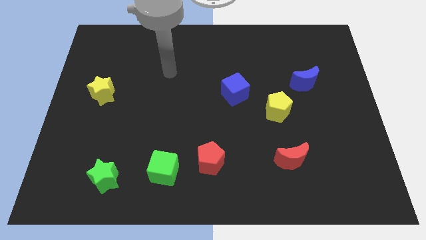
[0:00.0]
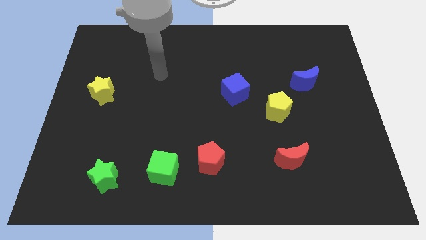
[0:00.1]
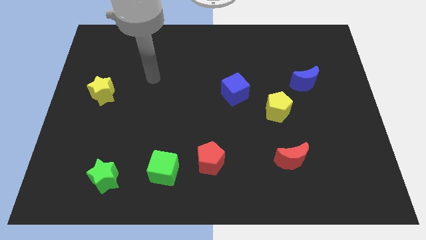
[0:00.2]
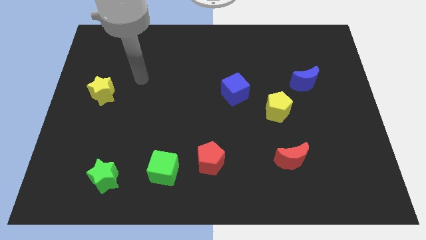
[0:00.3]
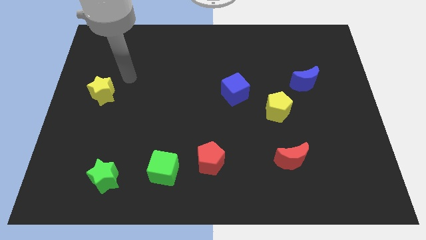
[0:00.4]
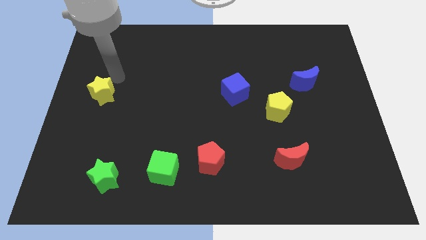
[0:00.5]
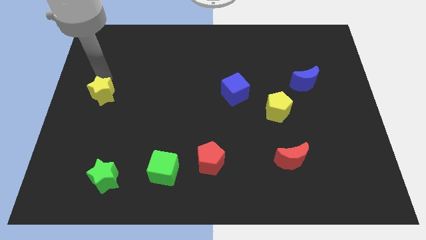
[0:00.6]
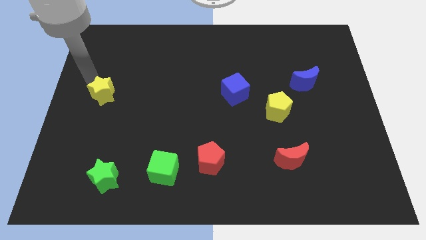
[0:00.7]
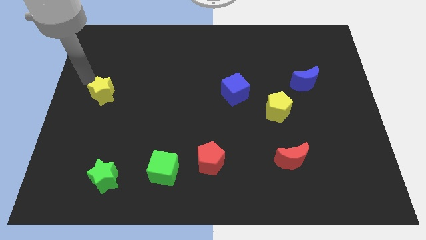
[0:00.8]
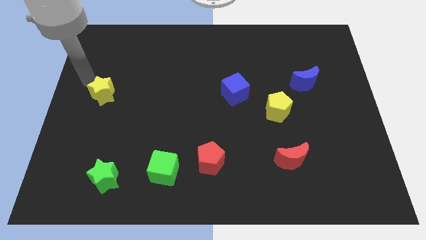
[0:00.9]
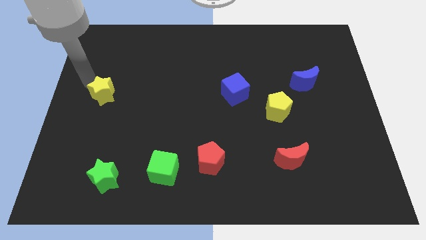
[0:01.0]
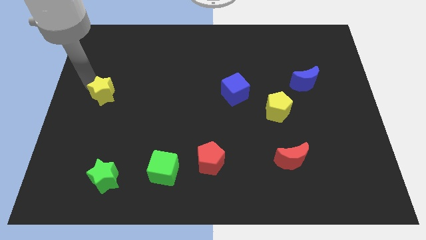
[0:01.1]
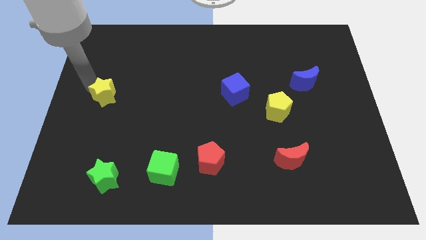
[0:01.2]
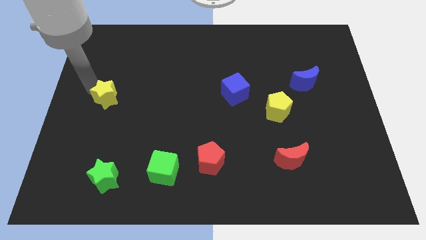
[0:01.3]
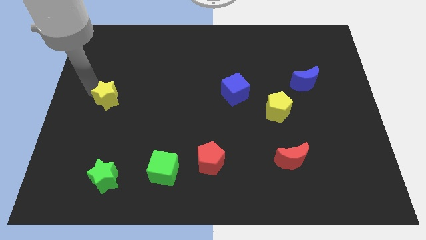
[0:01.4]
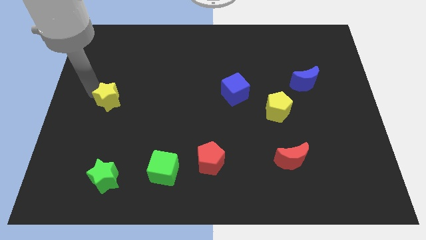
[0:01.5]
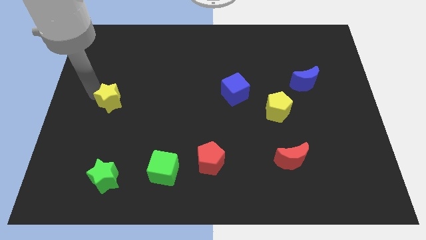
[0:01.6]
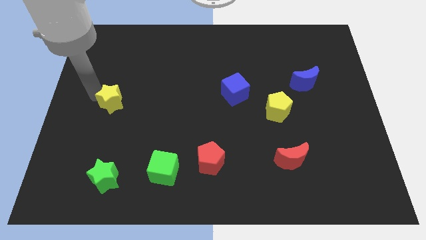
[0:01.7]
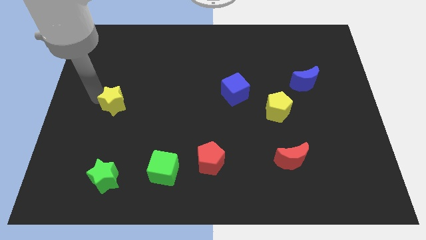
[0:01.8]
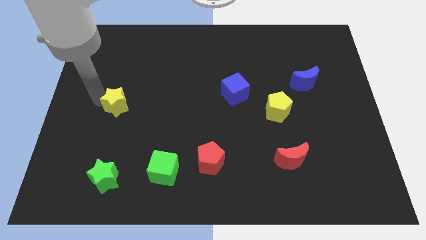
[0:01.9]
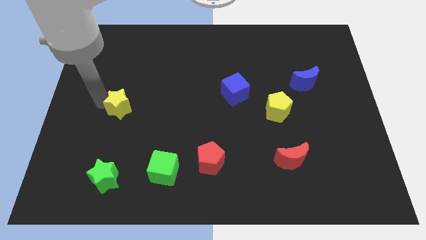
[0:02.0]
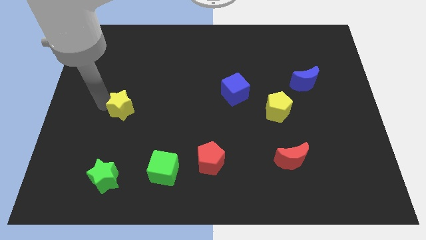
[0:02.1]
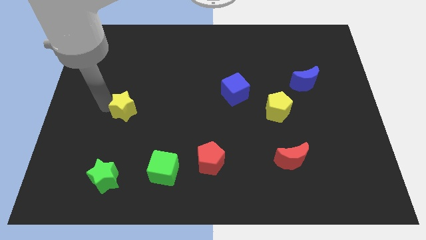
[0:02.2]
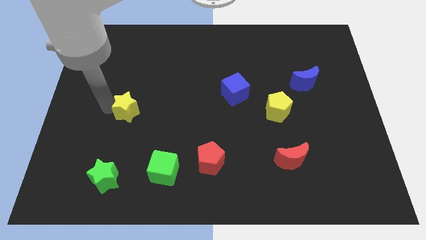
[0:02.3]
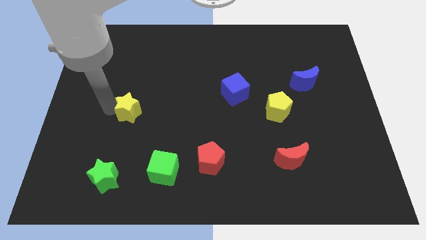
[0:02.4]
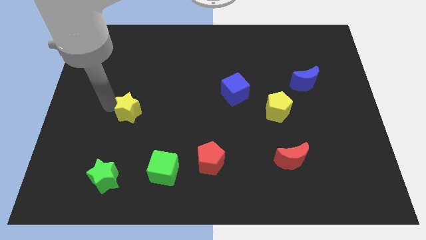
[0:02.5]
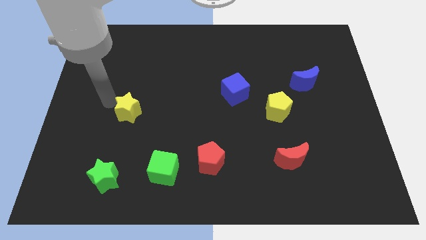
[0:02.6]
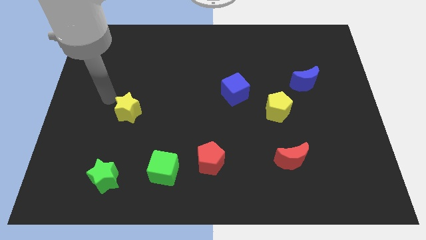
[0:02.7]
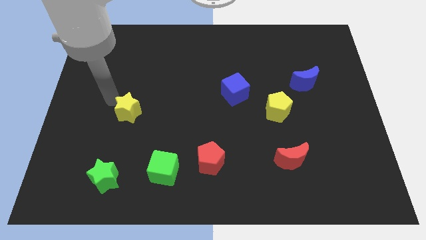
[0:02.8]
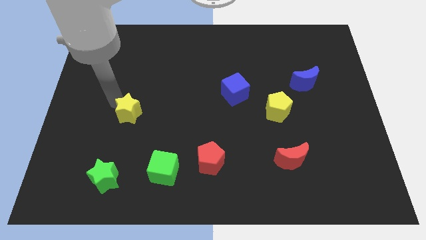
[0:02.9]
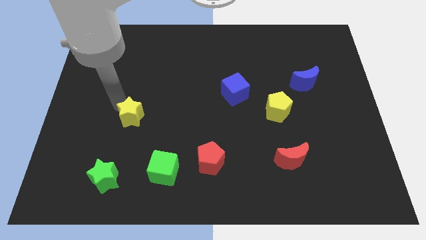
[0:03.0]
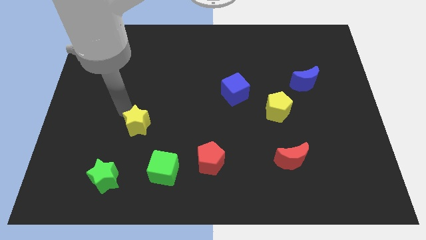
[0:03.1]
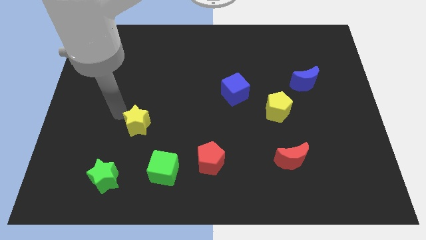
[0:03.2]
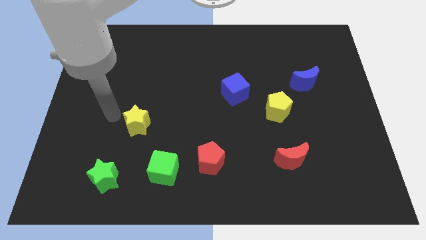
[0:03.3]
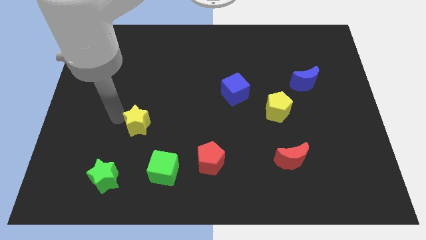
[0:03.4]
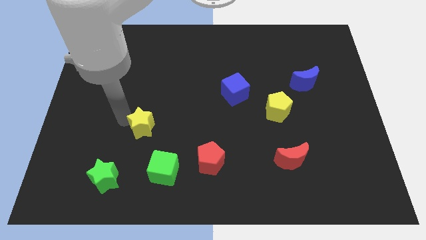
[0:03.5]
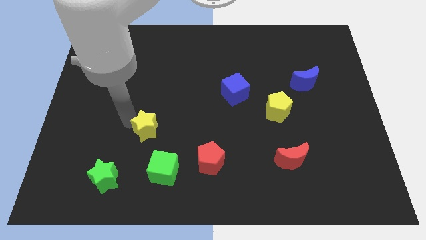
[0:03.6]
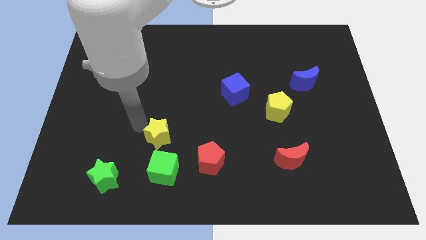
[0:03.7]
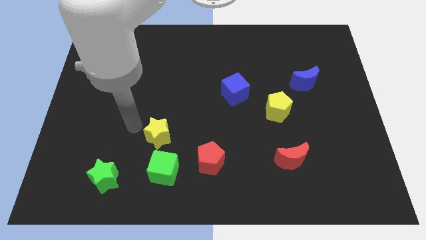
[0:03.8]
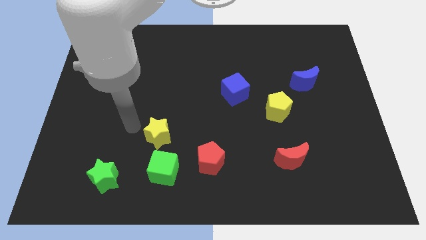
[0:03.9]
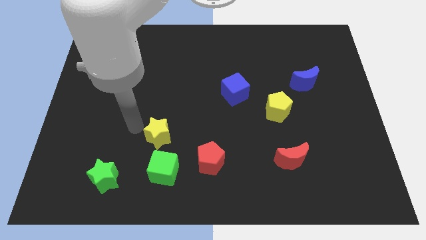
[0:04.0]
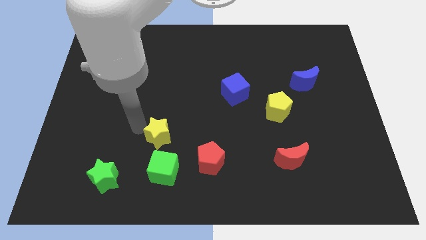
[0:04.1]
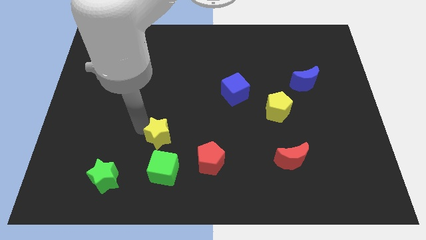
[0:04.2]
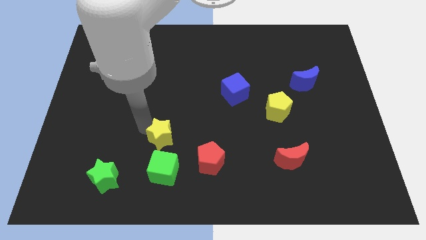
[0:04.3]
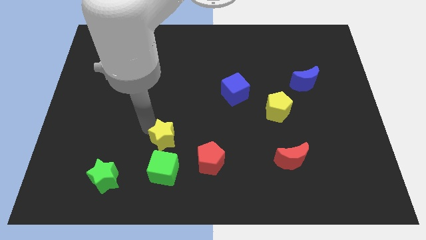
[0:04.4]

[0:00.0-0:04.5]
push the yellow star downwards and then to the right

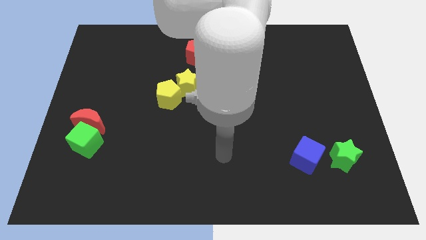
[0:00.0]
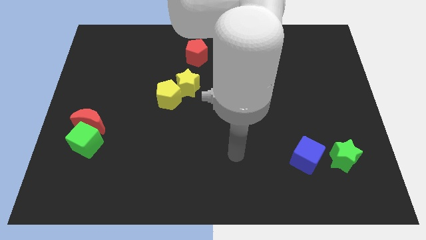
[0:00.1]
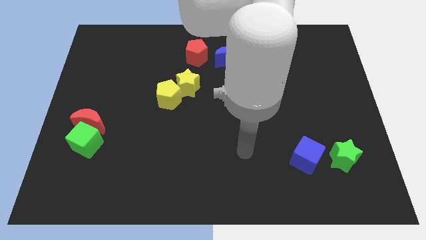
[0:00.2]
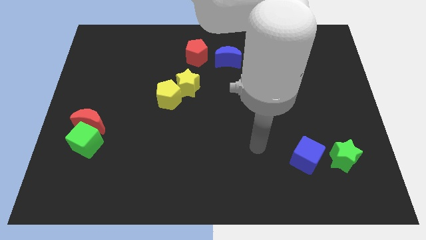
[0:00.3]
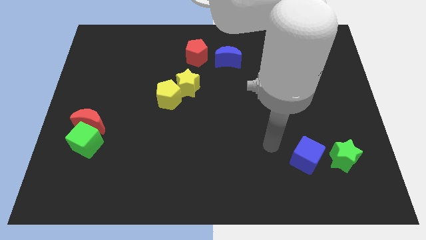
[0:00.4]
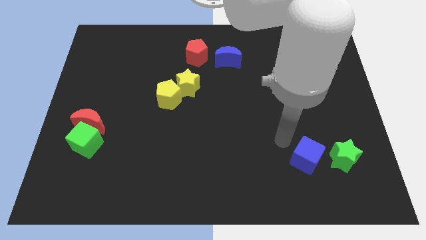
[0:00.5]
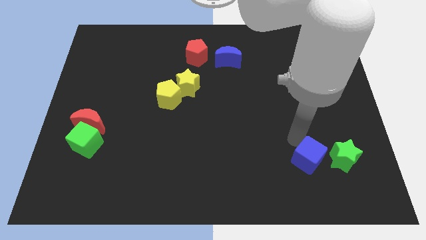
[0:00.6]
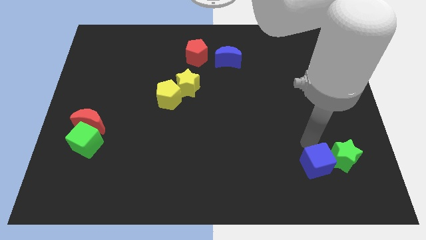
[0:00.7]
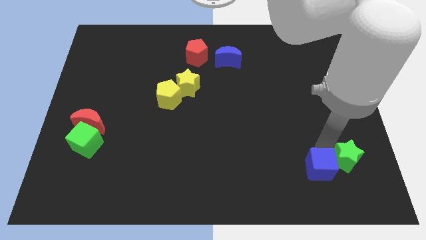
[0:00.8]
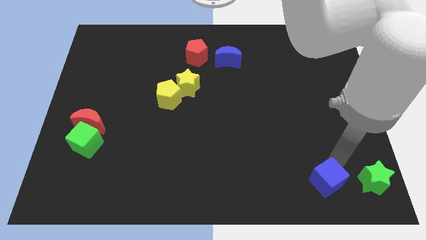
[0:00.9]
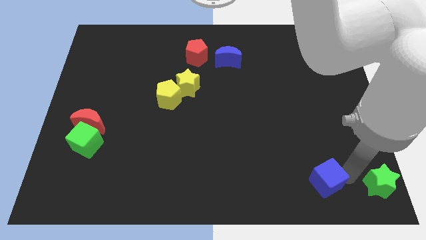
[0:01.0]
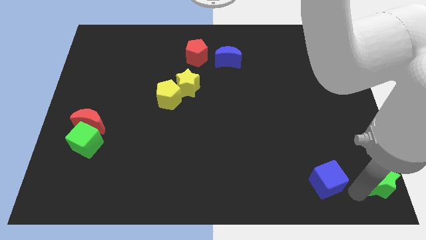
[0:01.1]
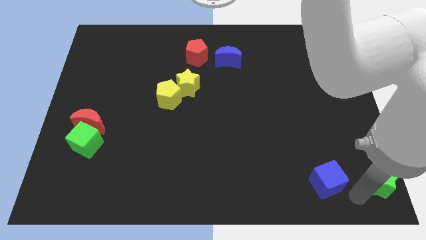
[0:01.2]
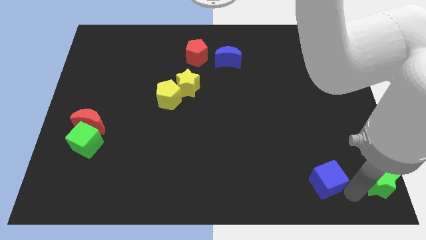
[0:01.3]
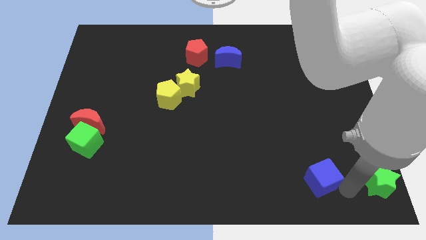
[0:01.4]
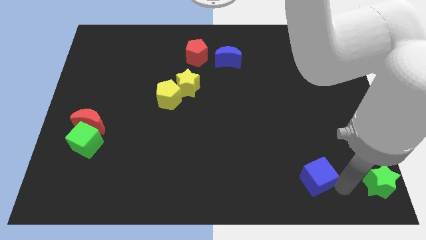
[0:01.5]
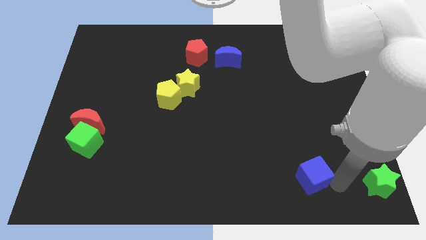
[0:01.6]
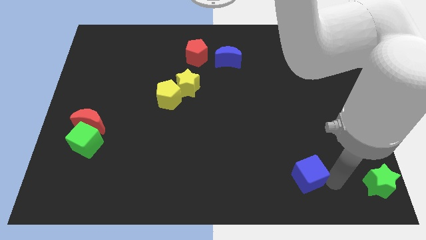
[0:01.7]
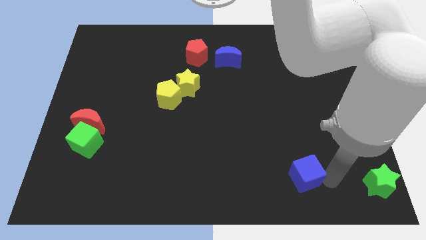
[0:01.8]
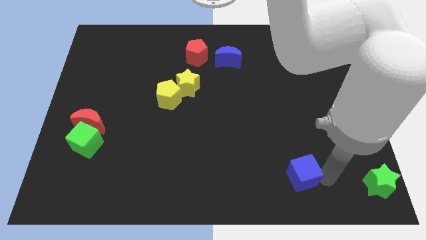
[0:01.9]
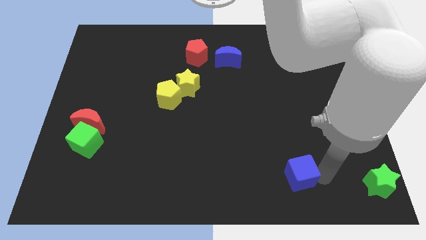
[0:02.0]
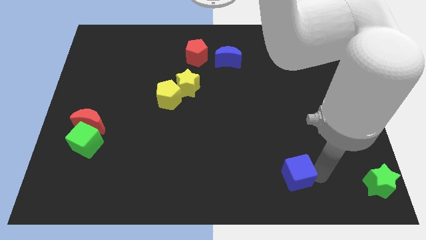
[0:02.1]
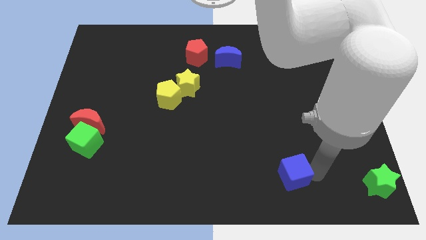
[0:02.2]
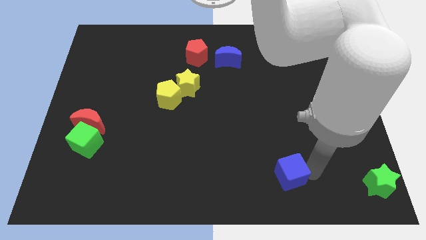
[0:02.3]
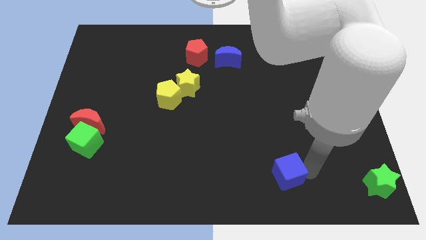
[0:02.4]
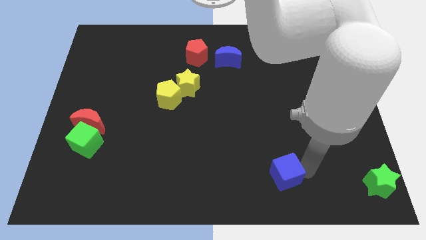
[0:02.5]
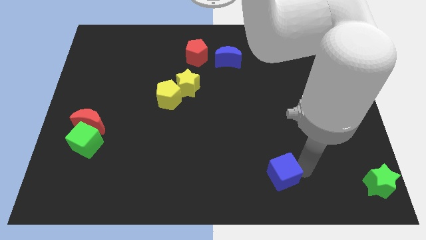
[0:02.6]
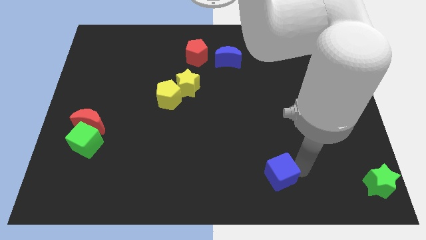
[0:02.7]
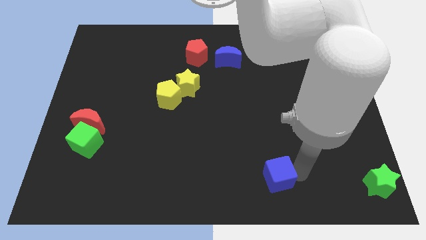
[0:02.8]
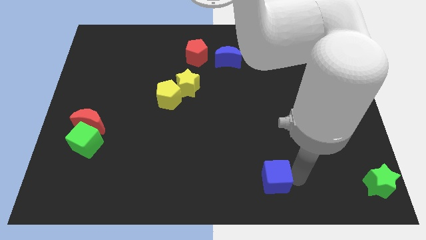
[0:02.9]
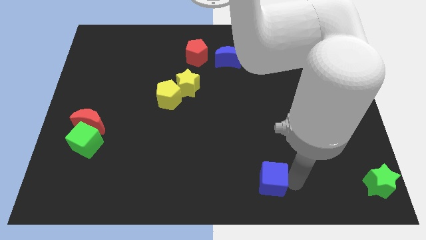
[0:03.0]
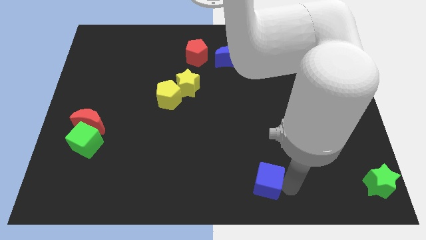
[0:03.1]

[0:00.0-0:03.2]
slightly move the blue cube to the left

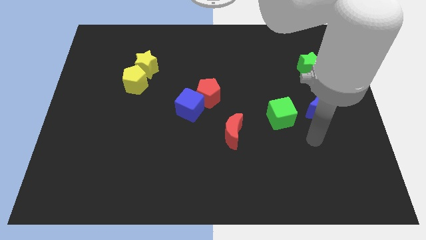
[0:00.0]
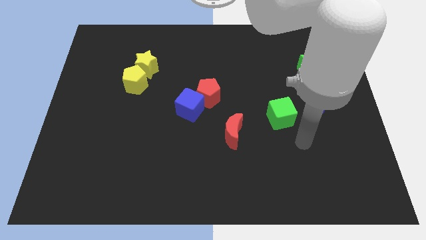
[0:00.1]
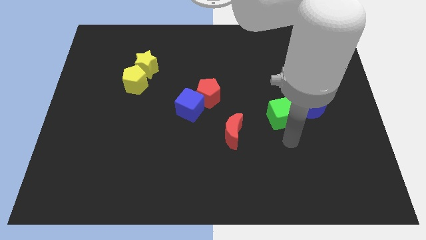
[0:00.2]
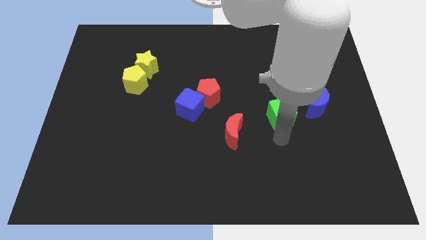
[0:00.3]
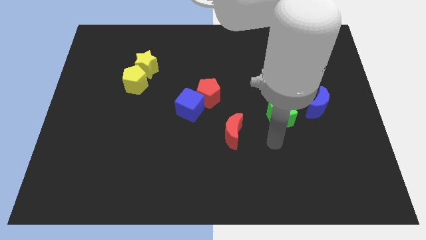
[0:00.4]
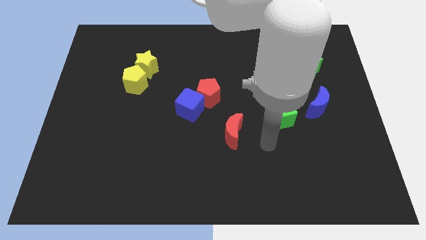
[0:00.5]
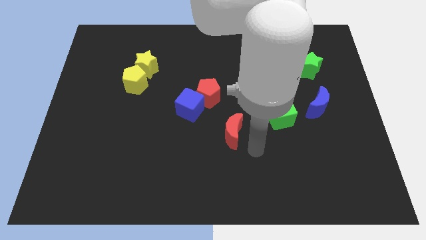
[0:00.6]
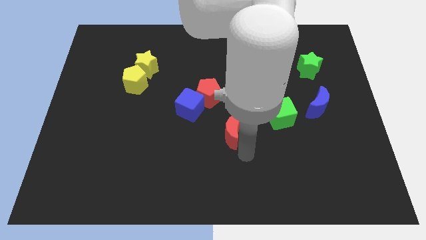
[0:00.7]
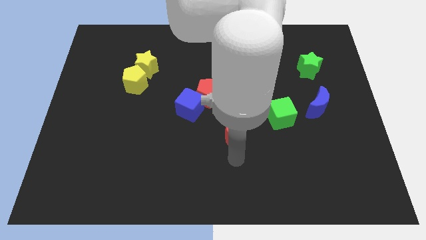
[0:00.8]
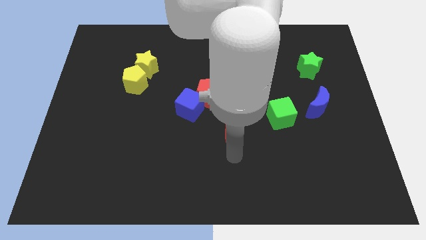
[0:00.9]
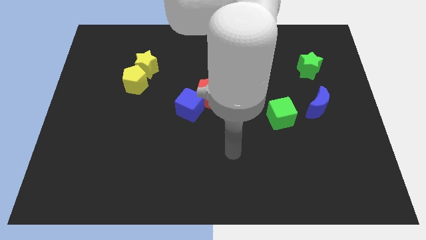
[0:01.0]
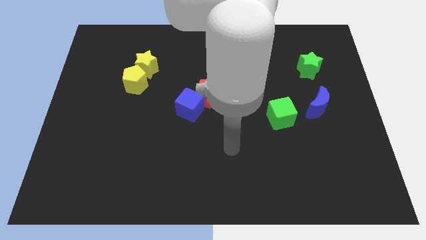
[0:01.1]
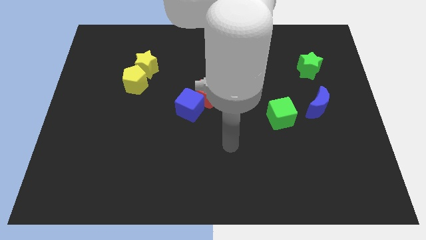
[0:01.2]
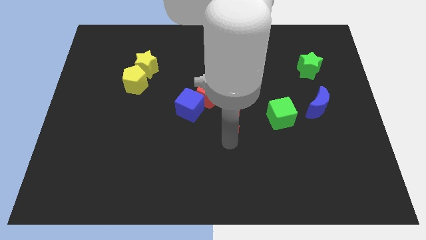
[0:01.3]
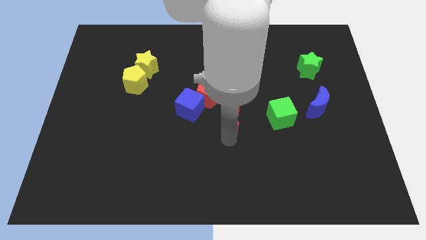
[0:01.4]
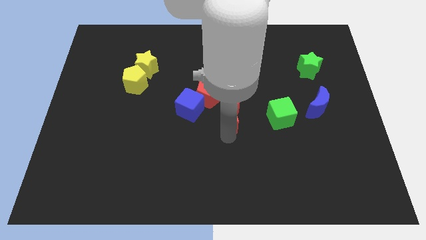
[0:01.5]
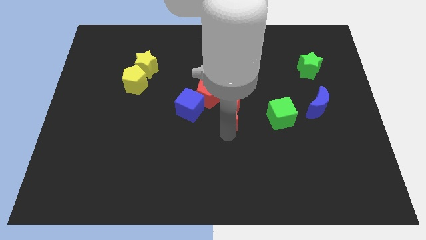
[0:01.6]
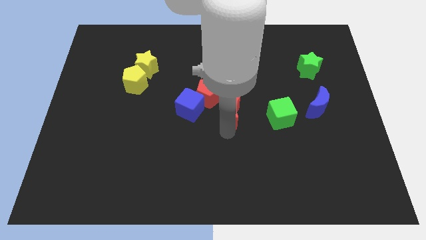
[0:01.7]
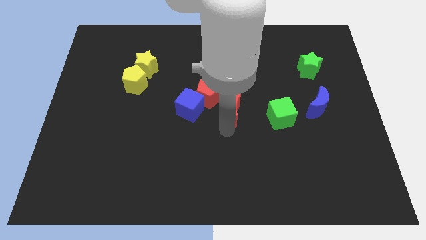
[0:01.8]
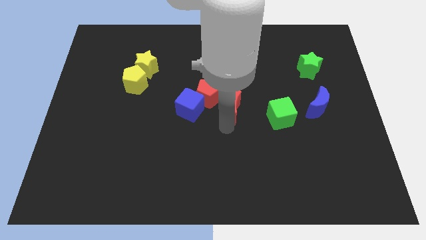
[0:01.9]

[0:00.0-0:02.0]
move the red moon a little up
